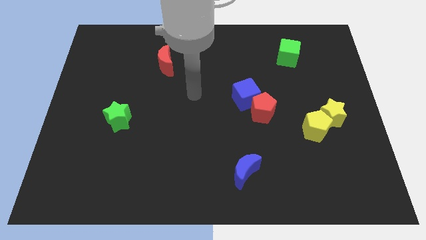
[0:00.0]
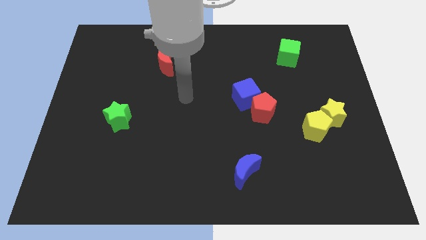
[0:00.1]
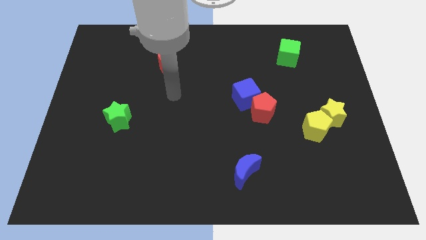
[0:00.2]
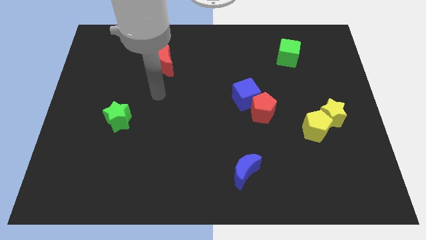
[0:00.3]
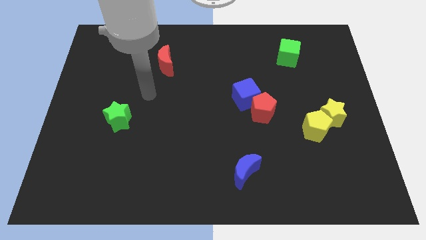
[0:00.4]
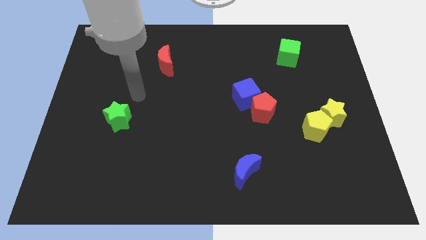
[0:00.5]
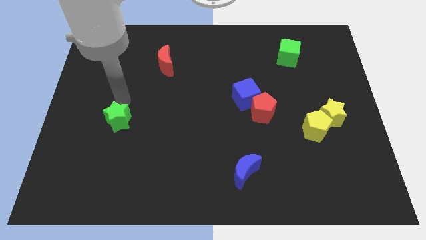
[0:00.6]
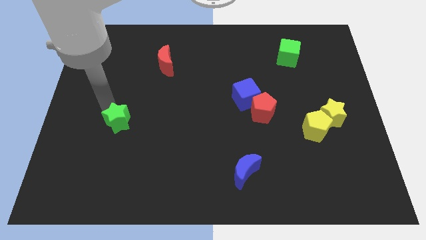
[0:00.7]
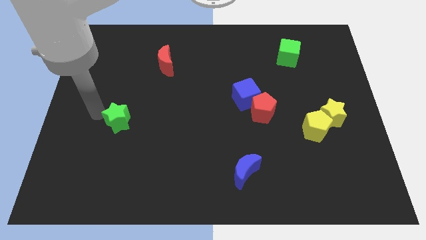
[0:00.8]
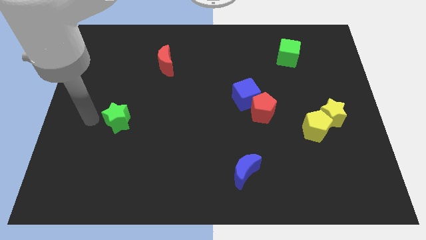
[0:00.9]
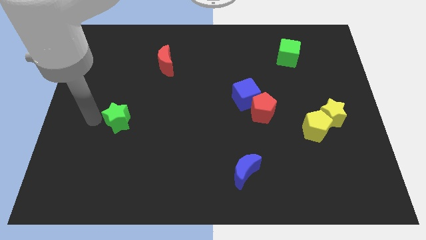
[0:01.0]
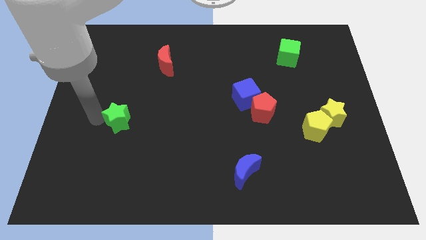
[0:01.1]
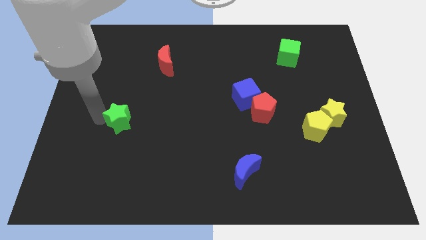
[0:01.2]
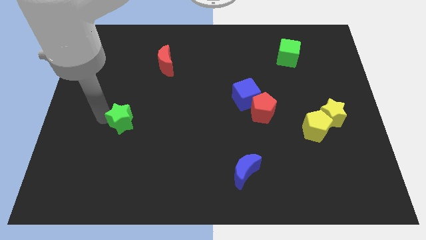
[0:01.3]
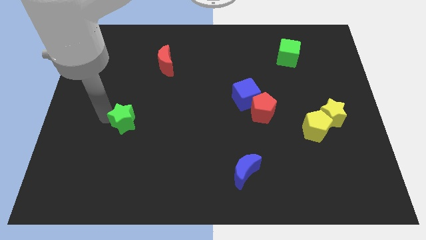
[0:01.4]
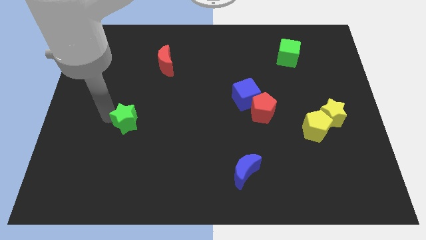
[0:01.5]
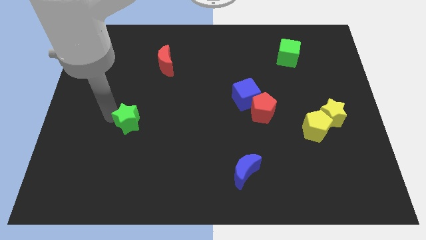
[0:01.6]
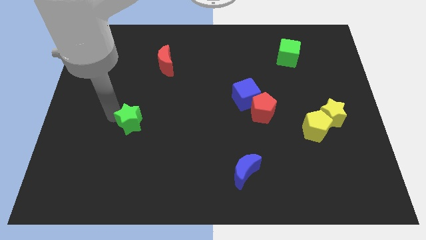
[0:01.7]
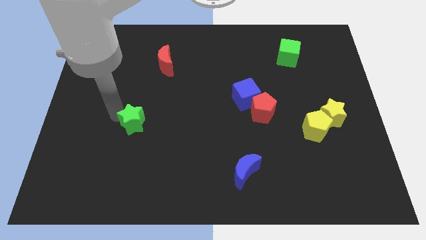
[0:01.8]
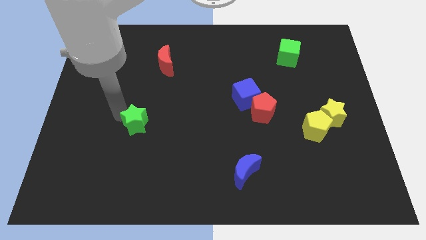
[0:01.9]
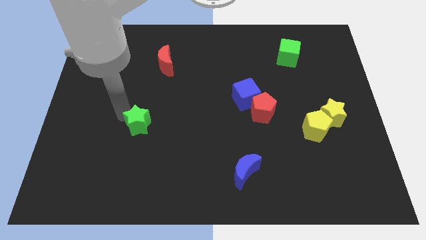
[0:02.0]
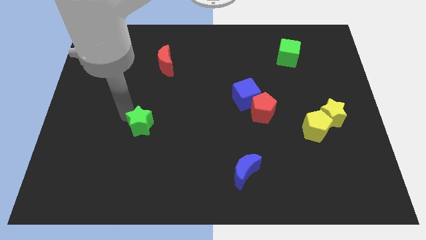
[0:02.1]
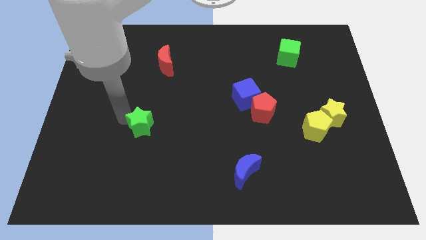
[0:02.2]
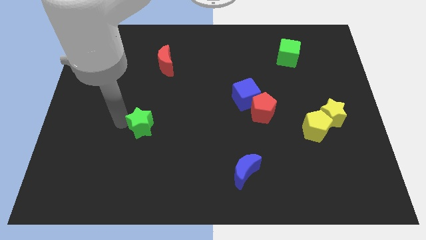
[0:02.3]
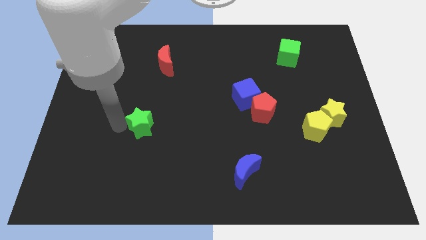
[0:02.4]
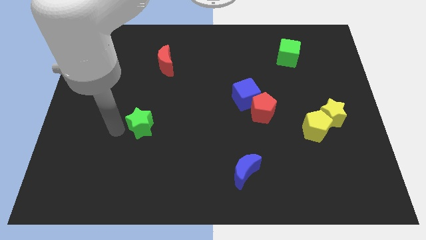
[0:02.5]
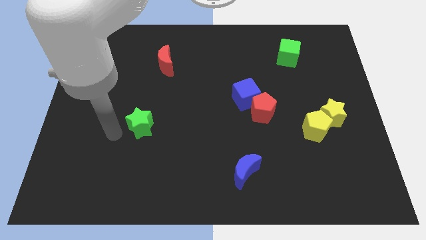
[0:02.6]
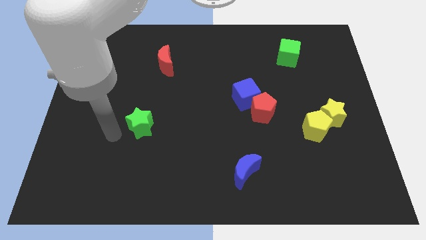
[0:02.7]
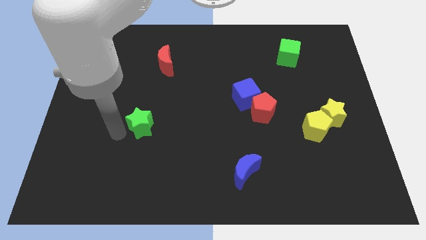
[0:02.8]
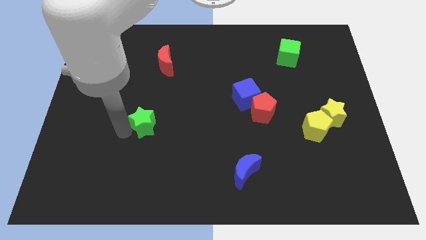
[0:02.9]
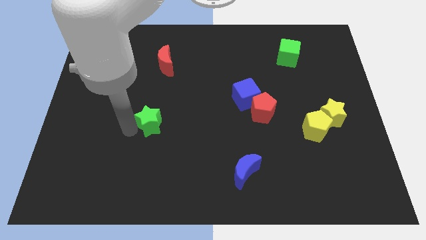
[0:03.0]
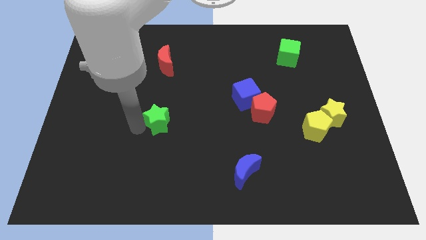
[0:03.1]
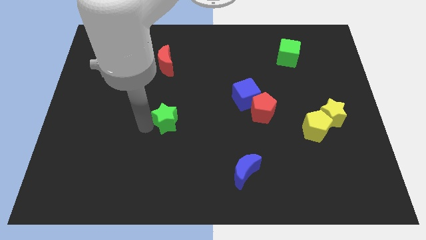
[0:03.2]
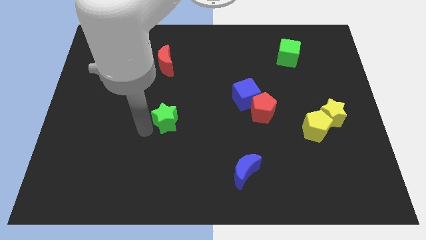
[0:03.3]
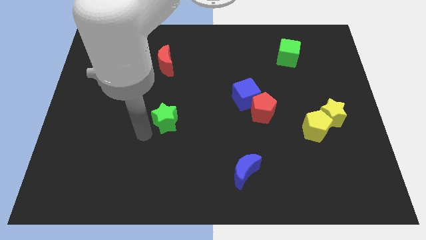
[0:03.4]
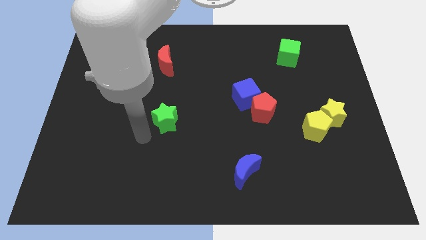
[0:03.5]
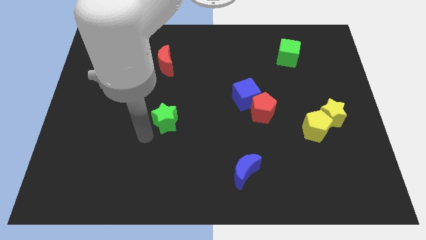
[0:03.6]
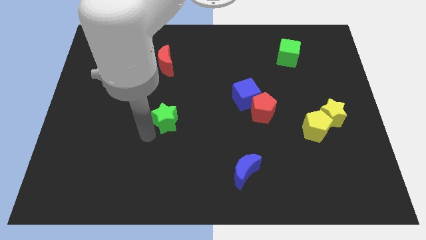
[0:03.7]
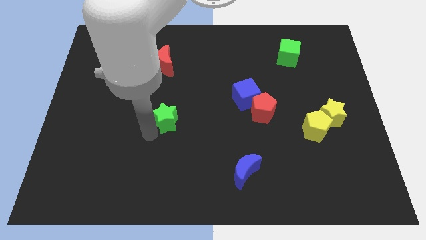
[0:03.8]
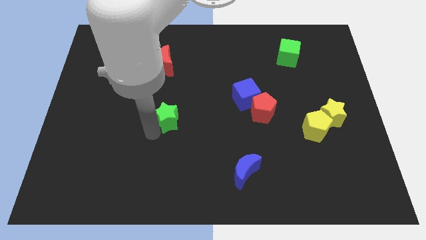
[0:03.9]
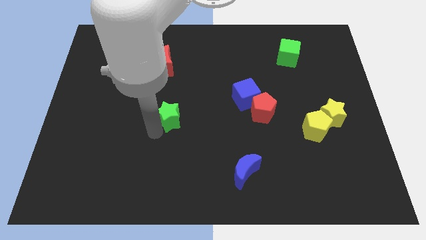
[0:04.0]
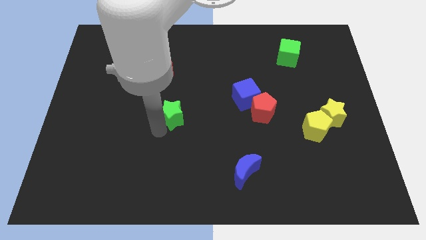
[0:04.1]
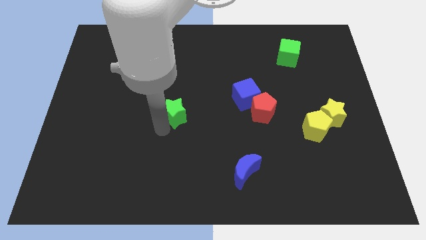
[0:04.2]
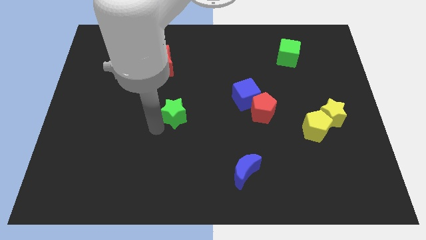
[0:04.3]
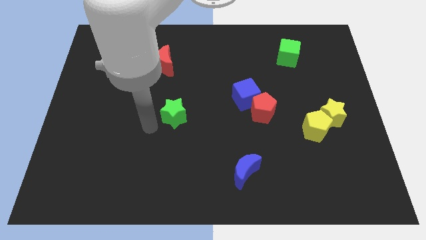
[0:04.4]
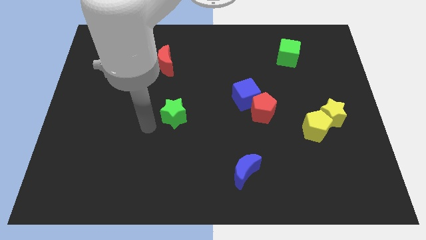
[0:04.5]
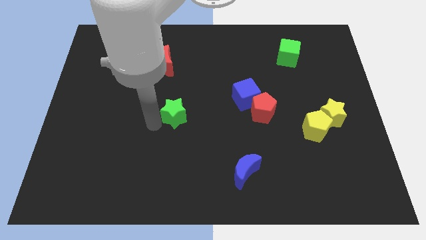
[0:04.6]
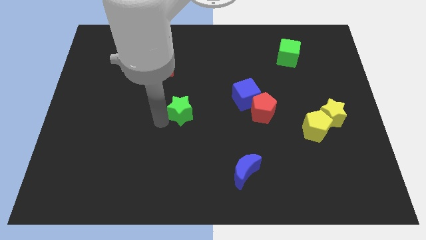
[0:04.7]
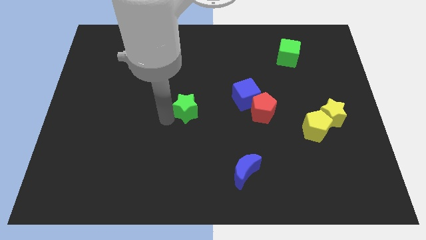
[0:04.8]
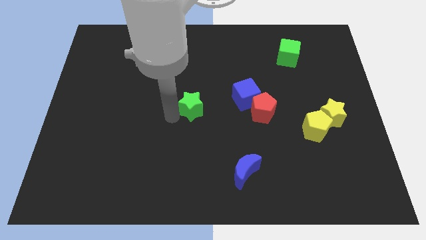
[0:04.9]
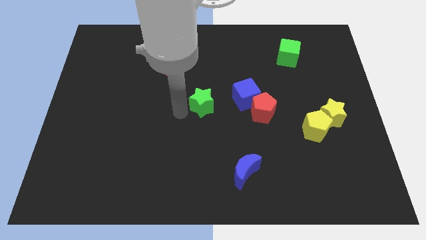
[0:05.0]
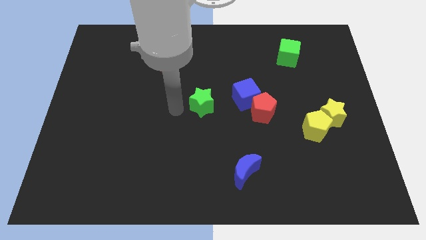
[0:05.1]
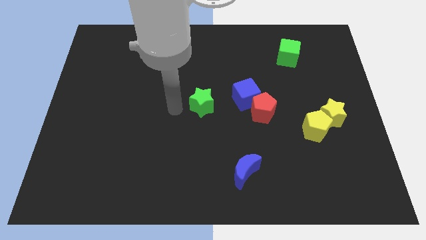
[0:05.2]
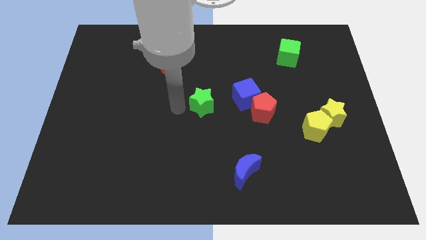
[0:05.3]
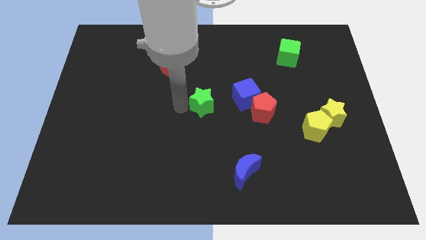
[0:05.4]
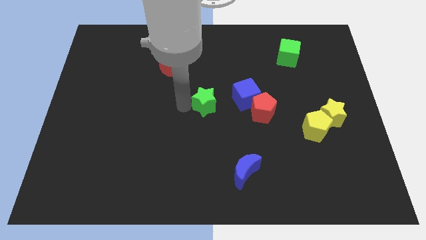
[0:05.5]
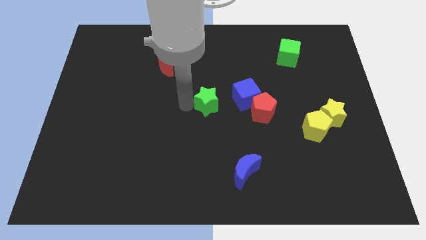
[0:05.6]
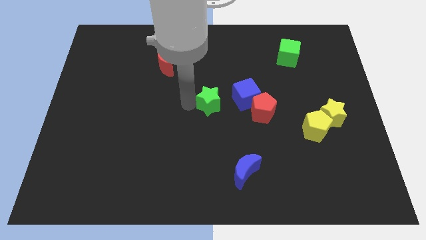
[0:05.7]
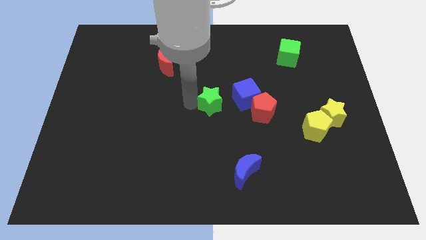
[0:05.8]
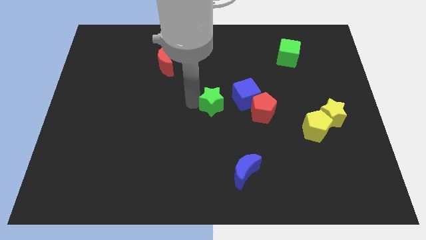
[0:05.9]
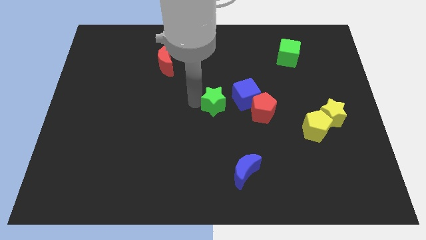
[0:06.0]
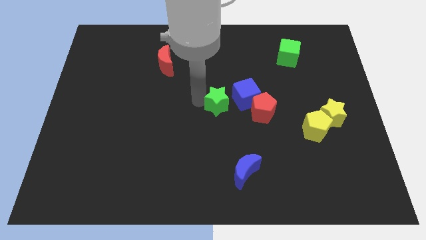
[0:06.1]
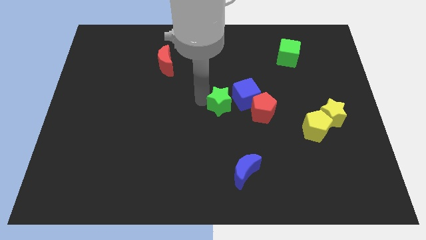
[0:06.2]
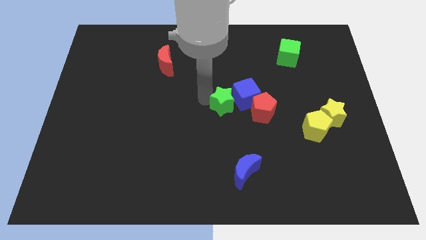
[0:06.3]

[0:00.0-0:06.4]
push the green star close to the blue cube

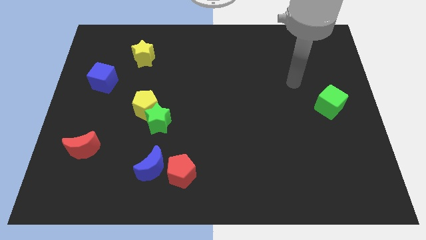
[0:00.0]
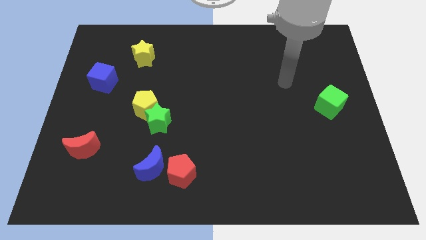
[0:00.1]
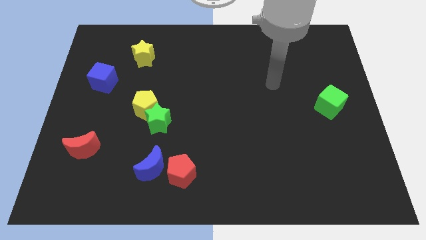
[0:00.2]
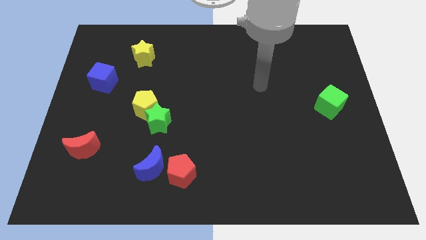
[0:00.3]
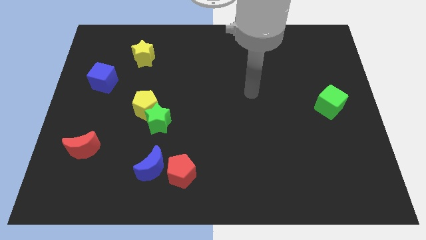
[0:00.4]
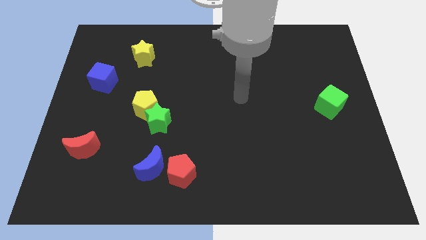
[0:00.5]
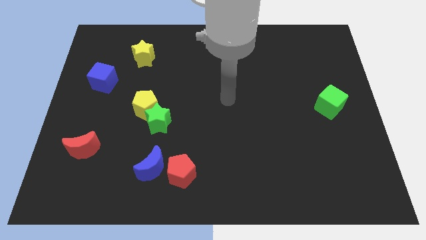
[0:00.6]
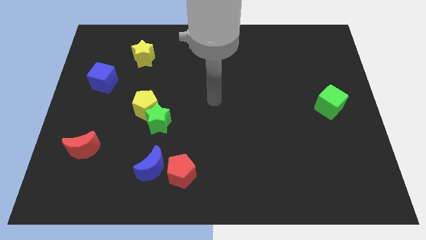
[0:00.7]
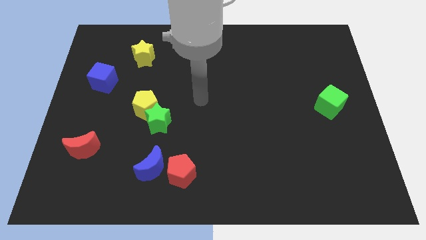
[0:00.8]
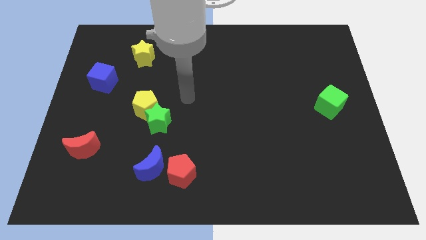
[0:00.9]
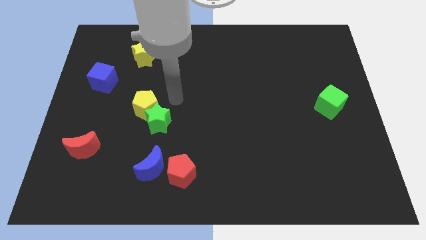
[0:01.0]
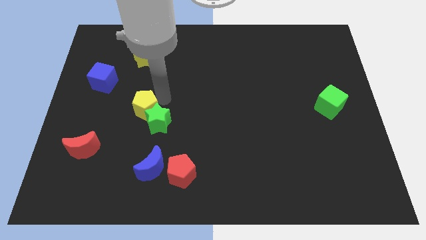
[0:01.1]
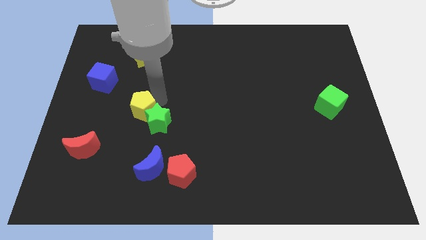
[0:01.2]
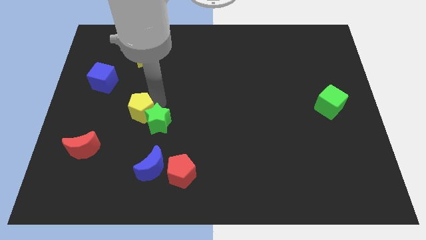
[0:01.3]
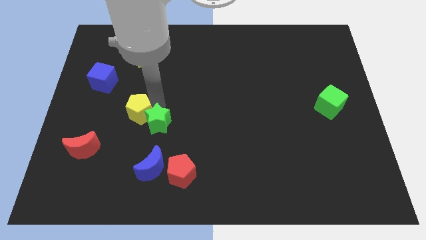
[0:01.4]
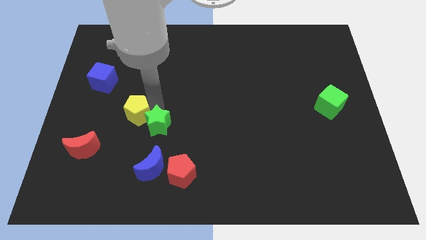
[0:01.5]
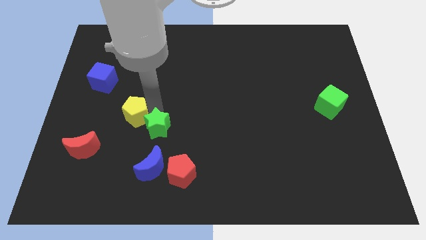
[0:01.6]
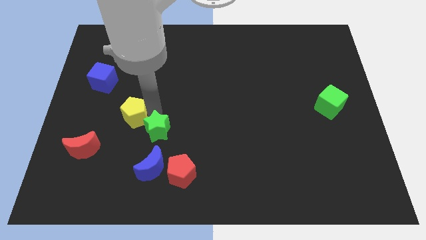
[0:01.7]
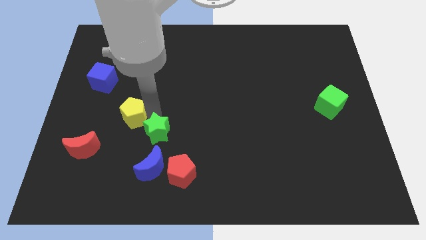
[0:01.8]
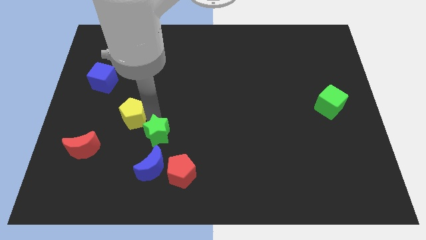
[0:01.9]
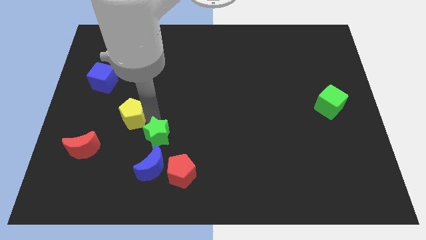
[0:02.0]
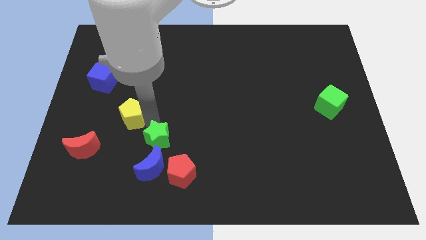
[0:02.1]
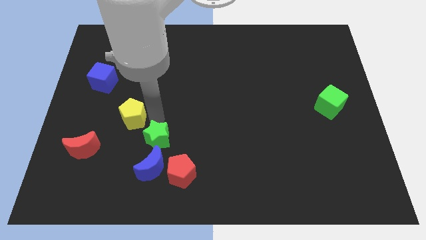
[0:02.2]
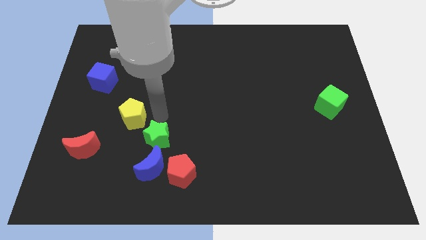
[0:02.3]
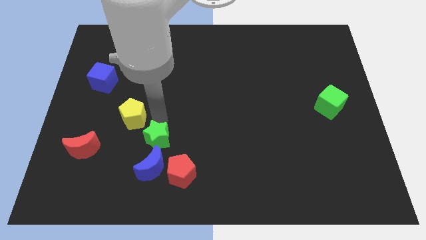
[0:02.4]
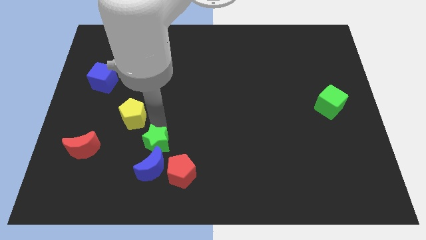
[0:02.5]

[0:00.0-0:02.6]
move the green star towards the blue moon
